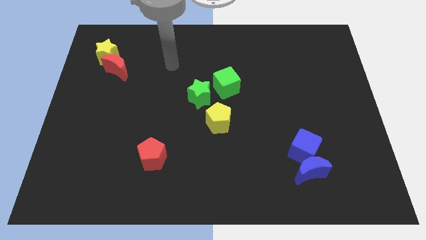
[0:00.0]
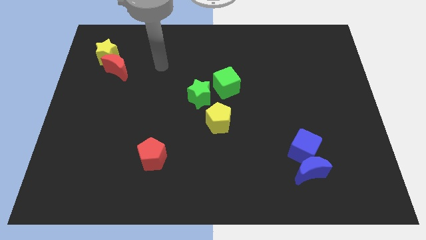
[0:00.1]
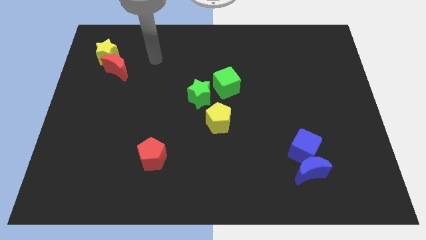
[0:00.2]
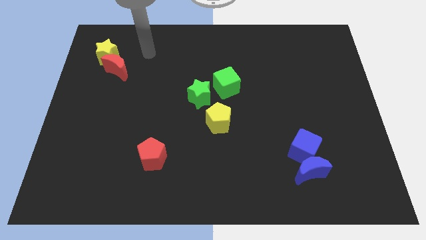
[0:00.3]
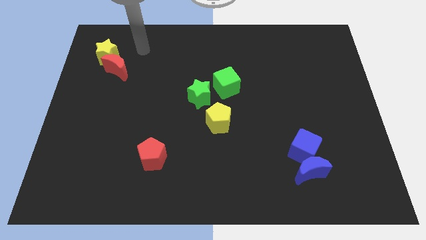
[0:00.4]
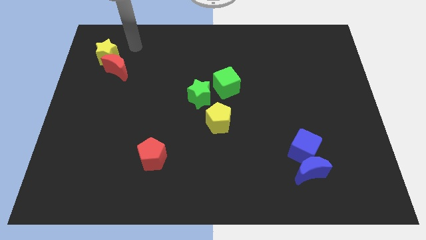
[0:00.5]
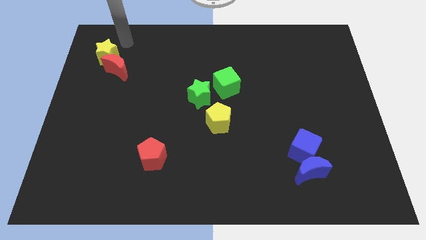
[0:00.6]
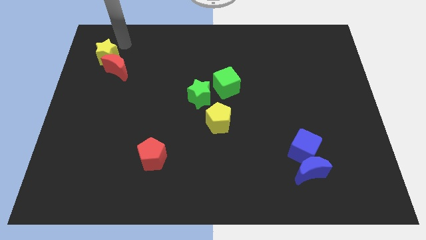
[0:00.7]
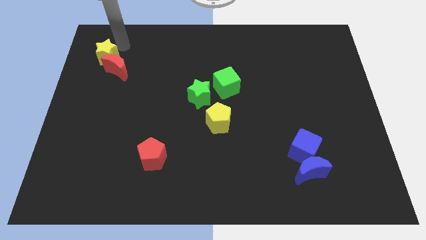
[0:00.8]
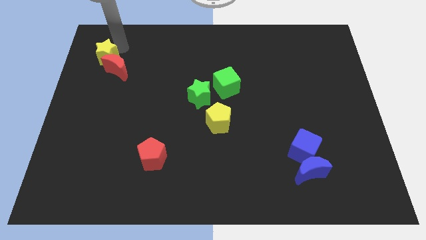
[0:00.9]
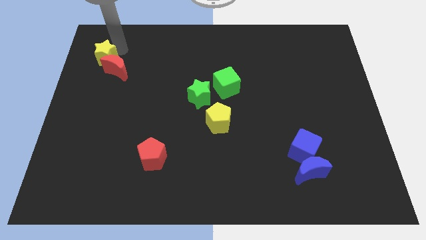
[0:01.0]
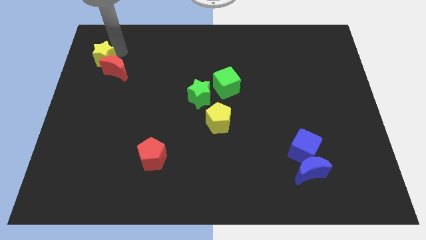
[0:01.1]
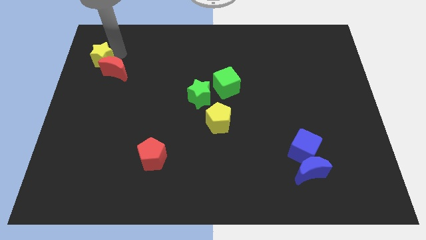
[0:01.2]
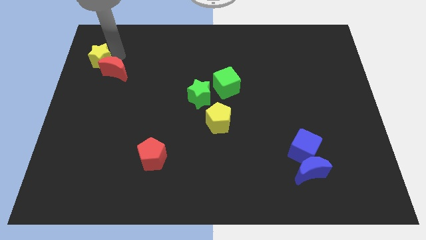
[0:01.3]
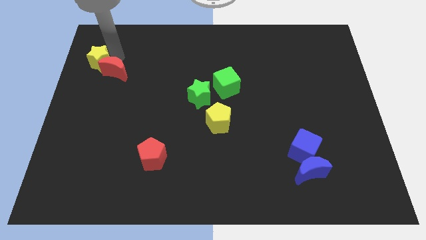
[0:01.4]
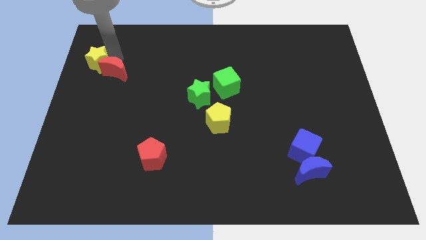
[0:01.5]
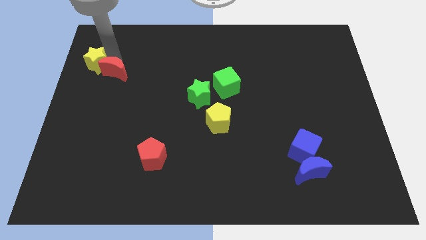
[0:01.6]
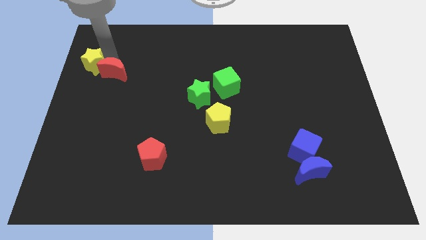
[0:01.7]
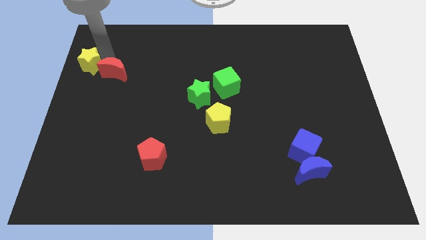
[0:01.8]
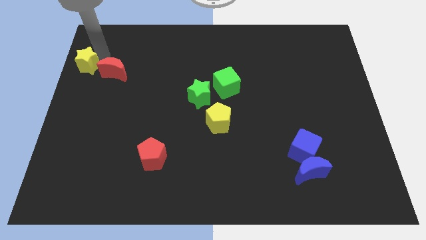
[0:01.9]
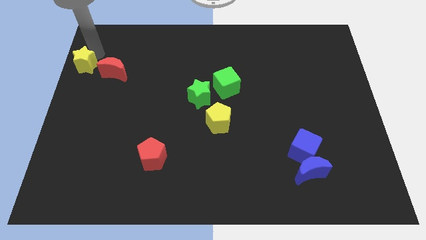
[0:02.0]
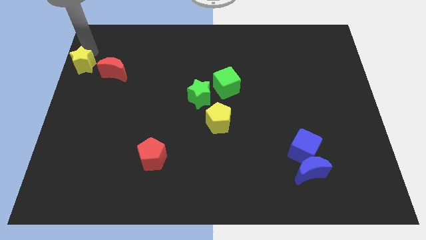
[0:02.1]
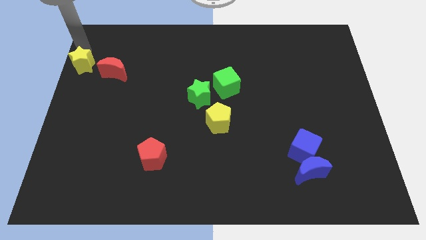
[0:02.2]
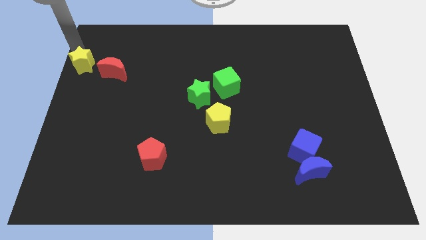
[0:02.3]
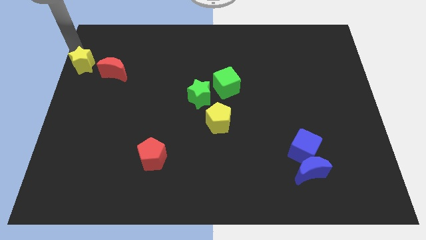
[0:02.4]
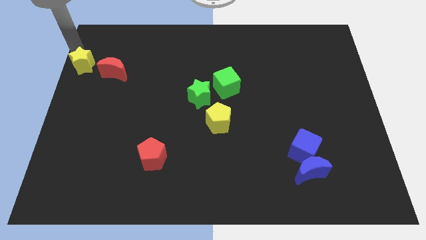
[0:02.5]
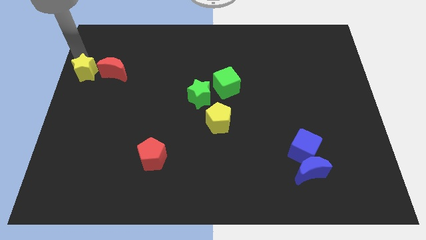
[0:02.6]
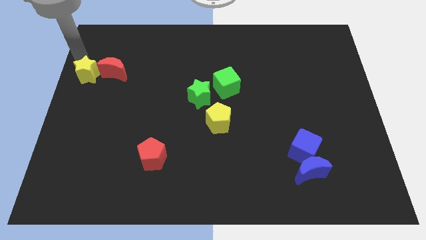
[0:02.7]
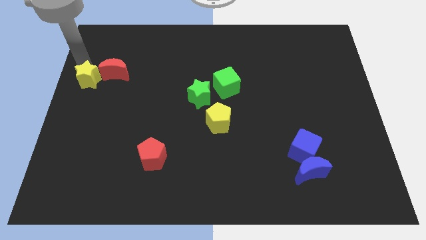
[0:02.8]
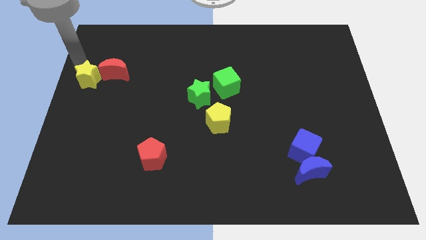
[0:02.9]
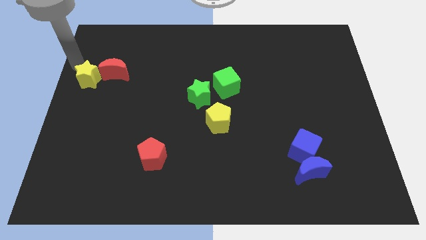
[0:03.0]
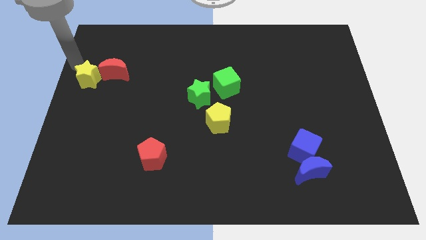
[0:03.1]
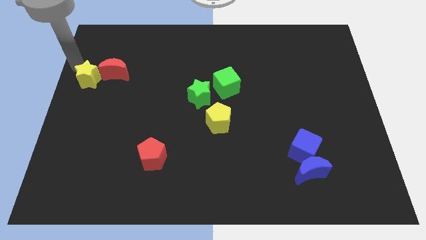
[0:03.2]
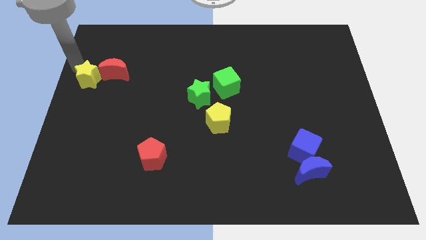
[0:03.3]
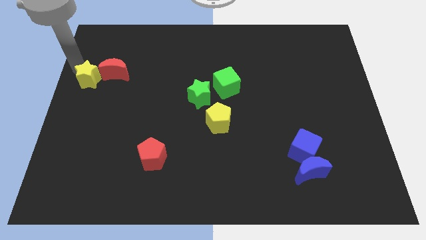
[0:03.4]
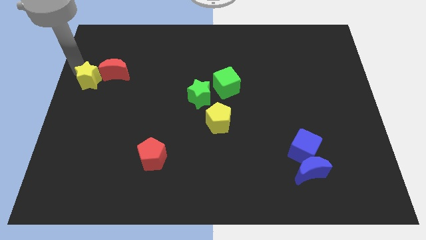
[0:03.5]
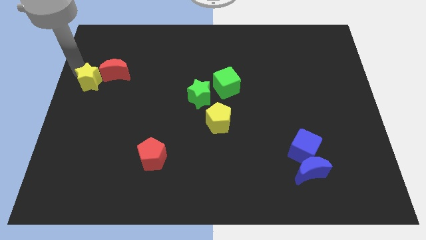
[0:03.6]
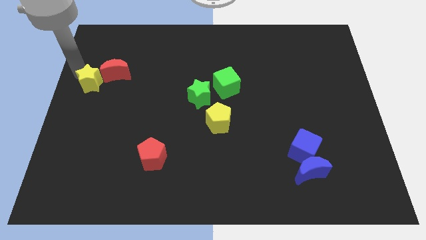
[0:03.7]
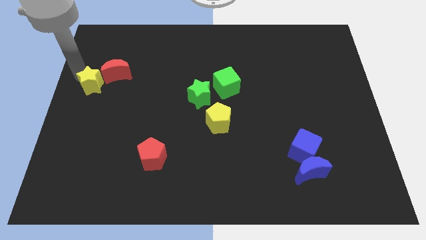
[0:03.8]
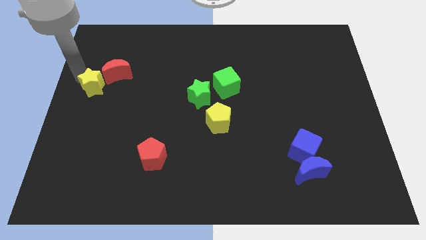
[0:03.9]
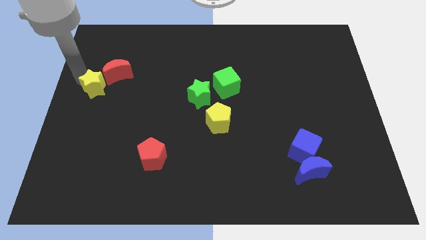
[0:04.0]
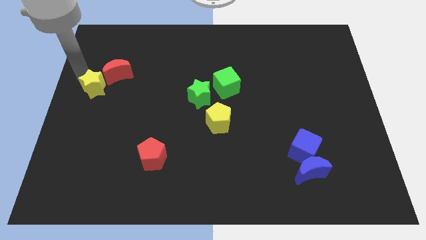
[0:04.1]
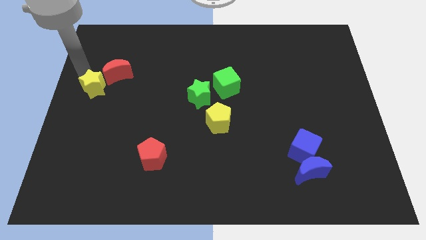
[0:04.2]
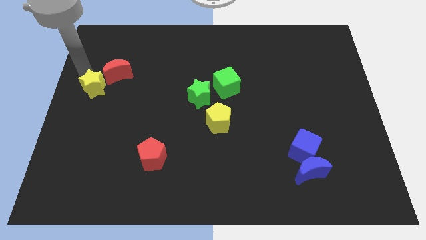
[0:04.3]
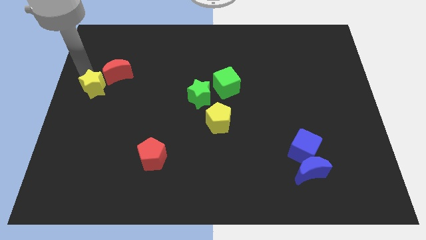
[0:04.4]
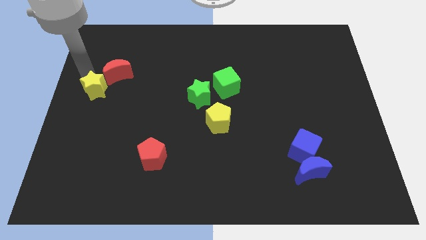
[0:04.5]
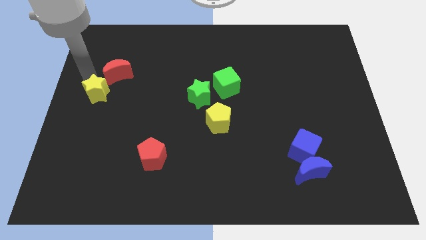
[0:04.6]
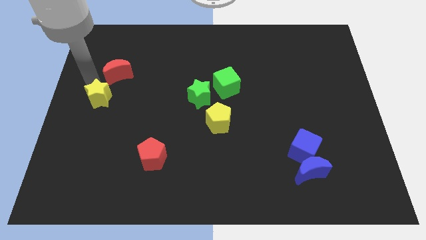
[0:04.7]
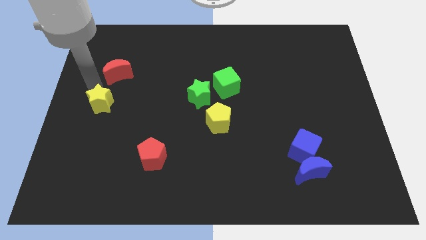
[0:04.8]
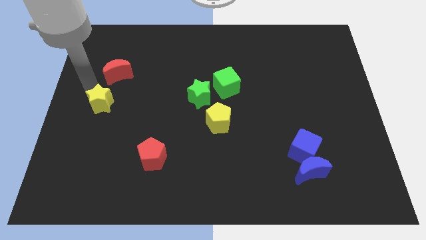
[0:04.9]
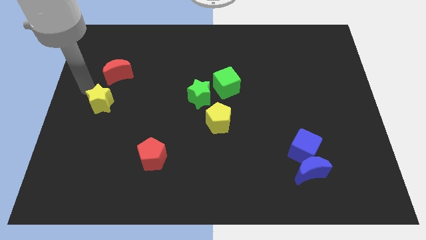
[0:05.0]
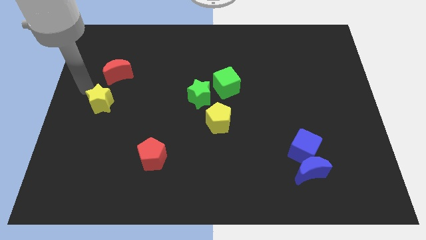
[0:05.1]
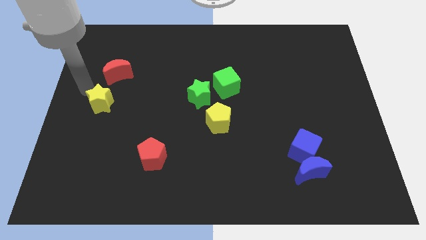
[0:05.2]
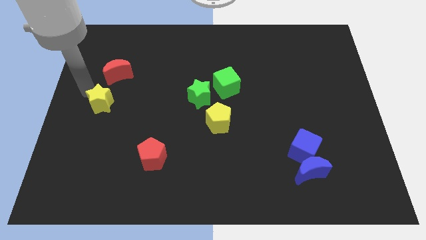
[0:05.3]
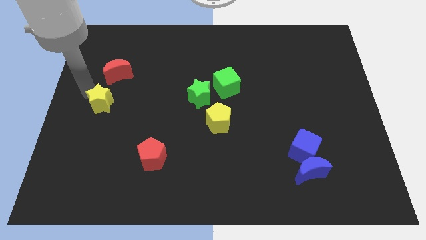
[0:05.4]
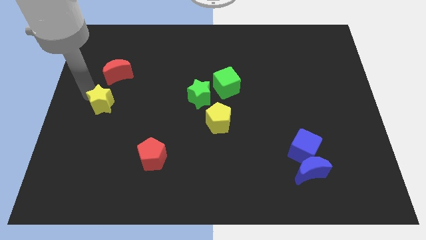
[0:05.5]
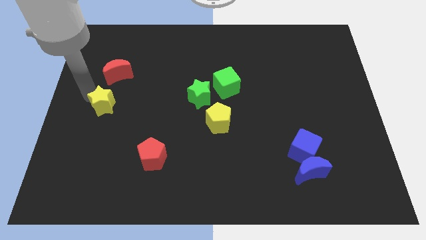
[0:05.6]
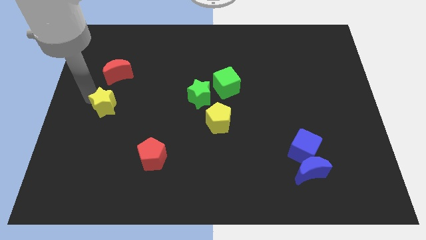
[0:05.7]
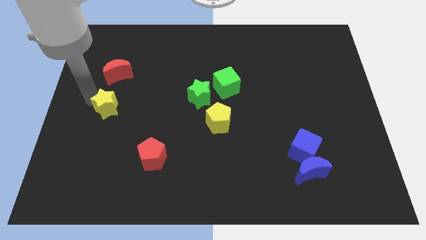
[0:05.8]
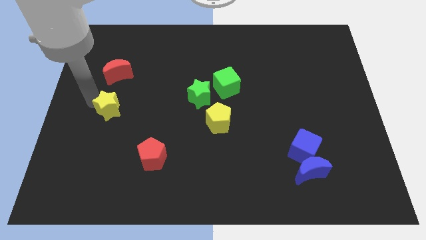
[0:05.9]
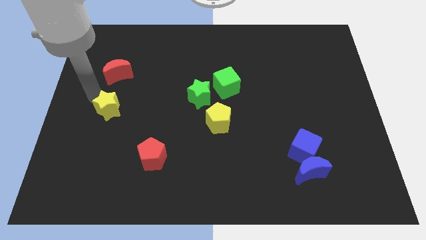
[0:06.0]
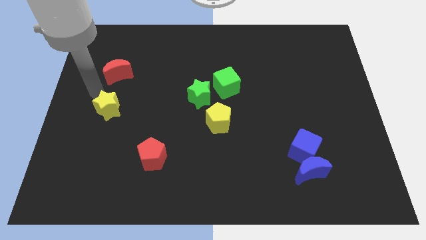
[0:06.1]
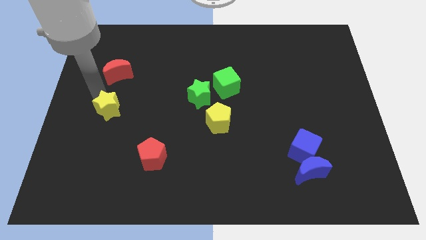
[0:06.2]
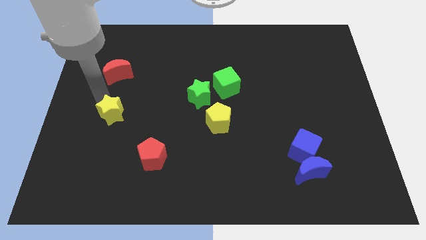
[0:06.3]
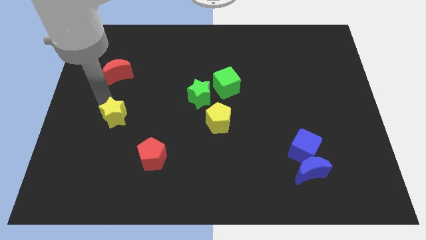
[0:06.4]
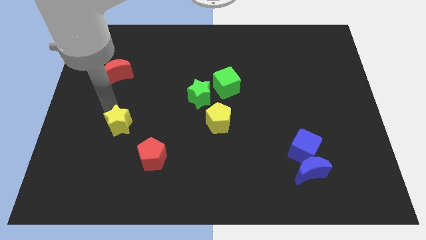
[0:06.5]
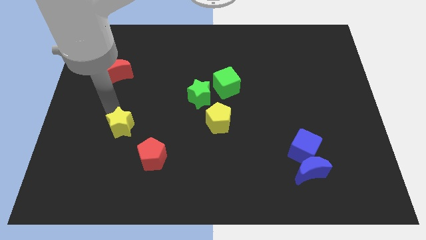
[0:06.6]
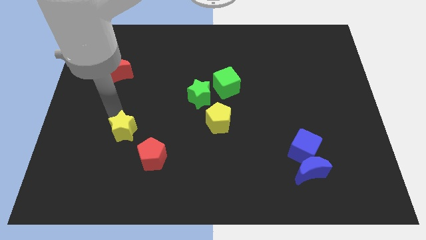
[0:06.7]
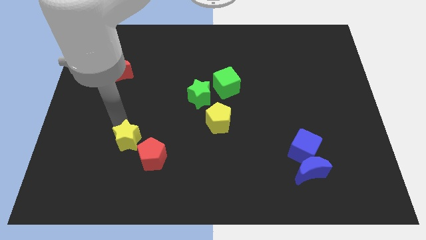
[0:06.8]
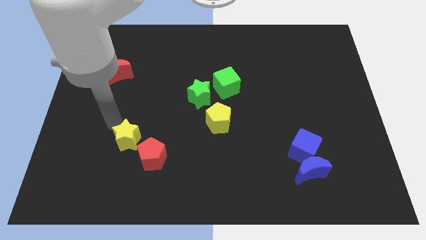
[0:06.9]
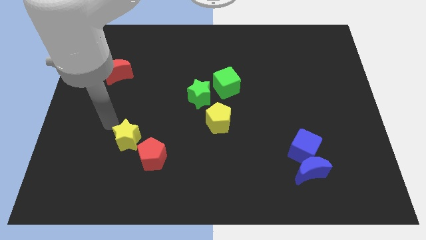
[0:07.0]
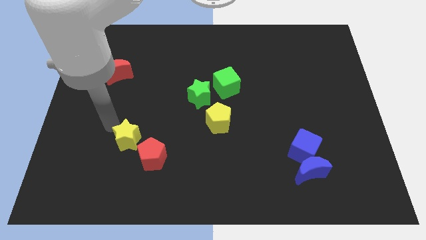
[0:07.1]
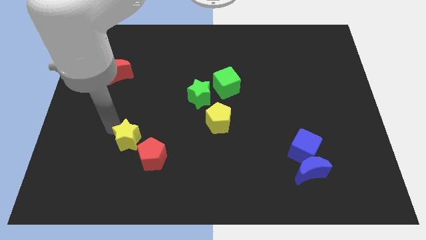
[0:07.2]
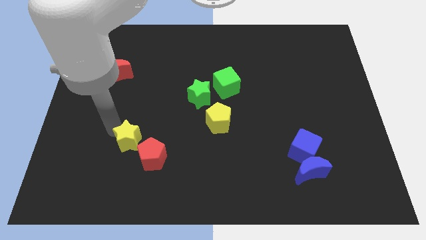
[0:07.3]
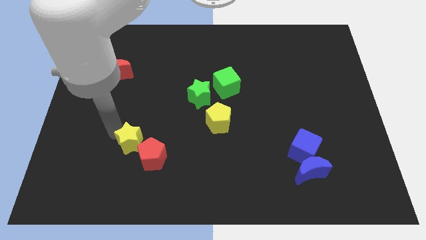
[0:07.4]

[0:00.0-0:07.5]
put the yellow star close to the red pentagon
